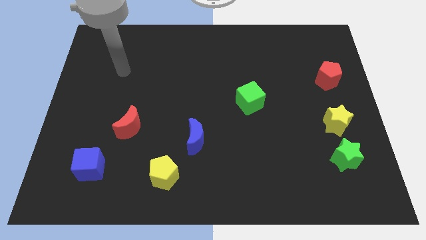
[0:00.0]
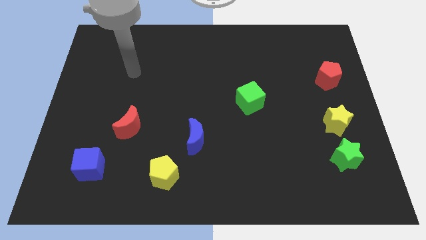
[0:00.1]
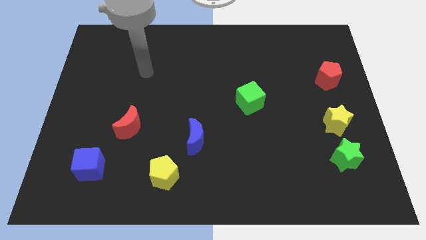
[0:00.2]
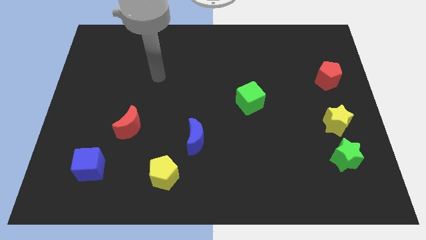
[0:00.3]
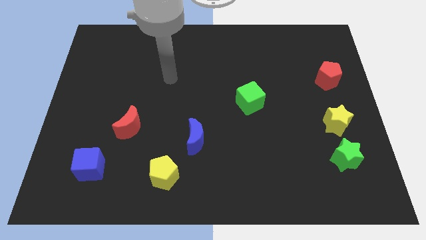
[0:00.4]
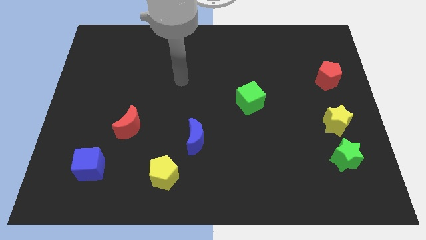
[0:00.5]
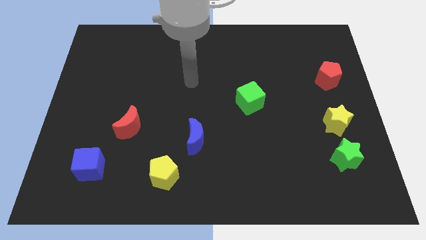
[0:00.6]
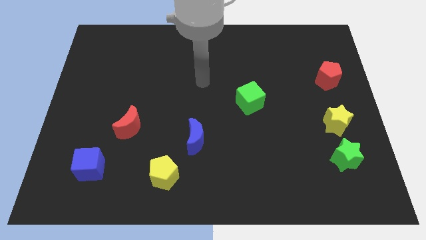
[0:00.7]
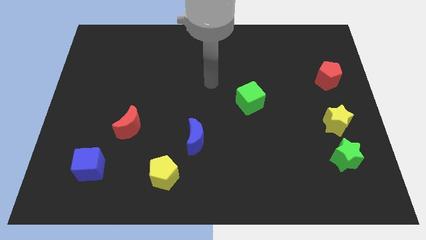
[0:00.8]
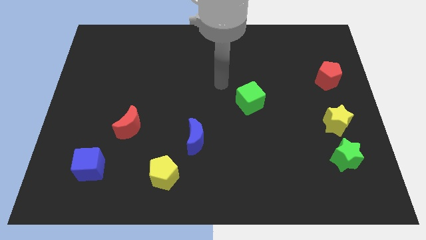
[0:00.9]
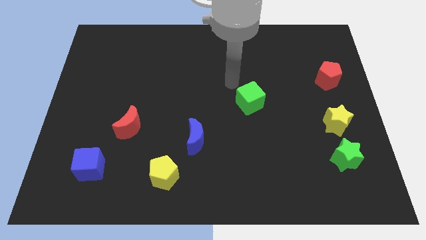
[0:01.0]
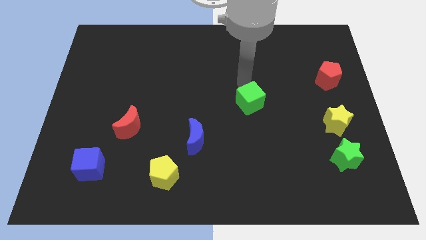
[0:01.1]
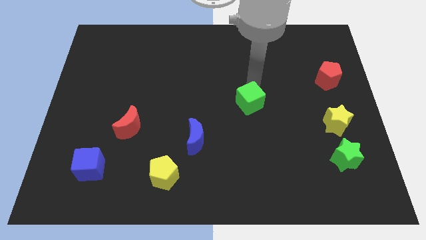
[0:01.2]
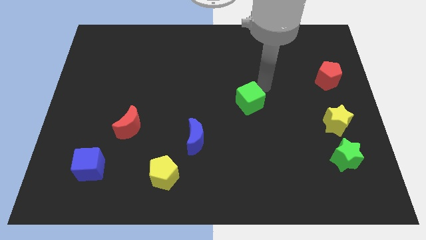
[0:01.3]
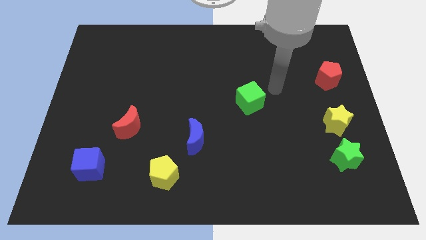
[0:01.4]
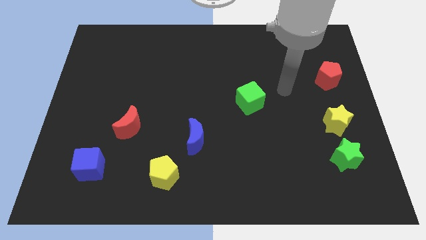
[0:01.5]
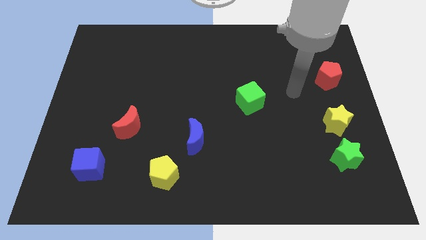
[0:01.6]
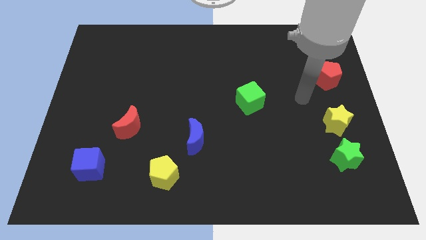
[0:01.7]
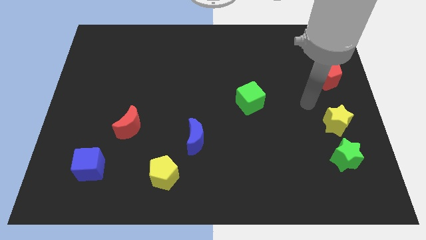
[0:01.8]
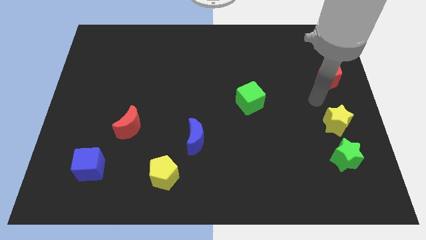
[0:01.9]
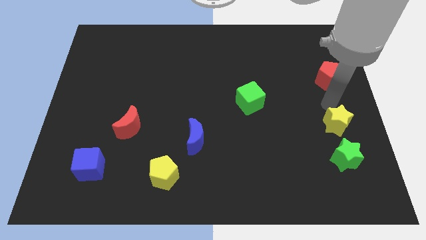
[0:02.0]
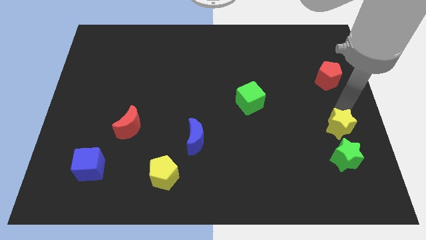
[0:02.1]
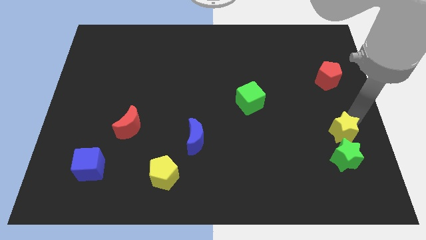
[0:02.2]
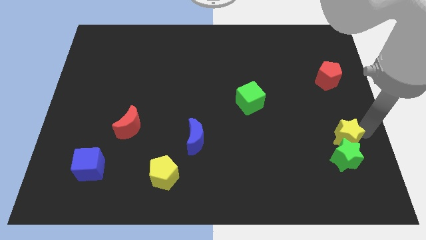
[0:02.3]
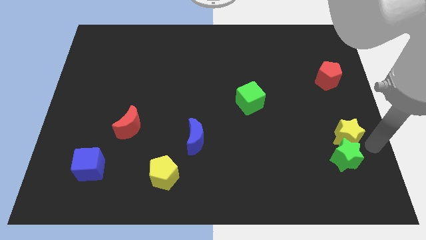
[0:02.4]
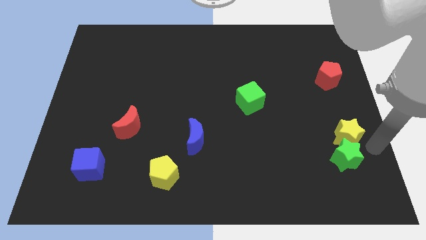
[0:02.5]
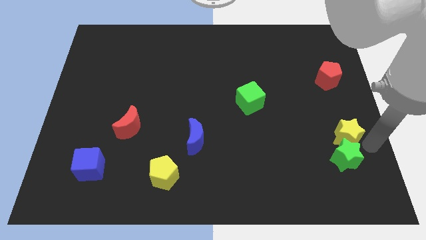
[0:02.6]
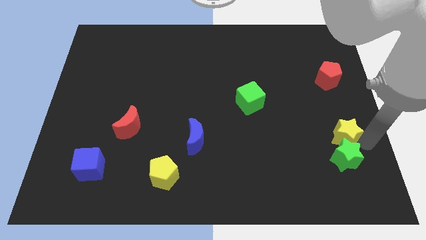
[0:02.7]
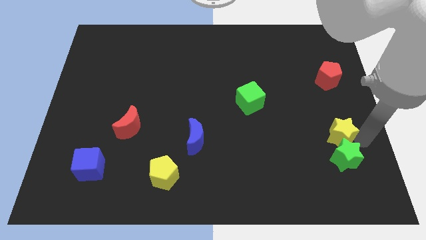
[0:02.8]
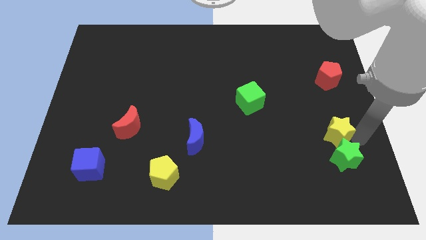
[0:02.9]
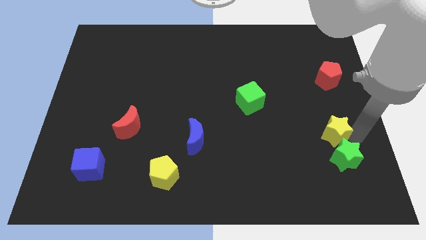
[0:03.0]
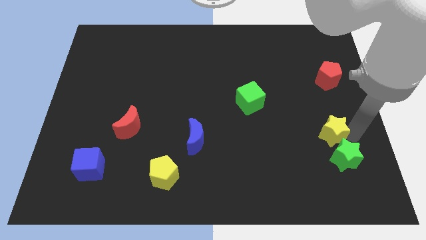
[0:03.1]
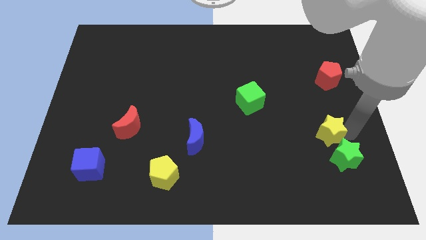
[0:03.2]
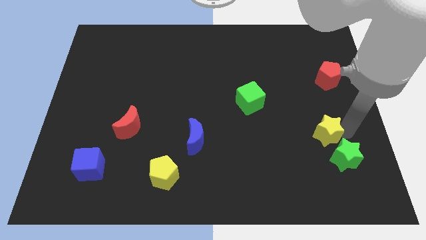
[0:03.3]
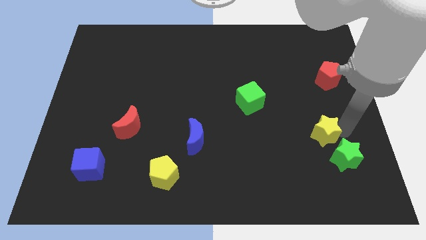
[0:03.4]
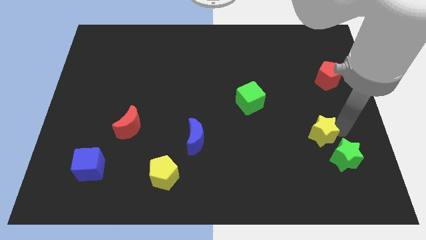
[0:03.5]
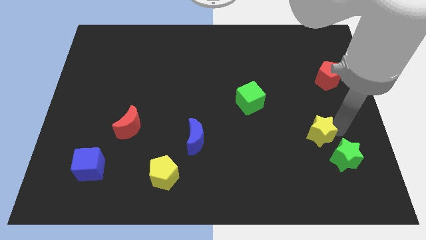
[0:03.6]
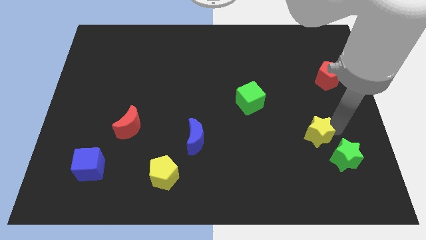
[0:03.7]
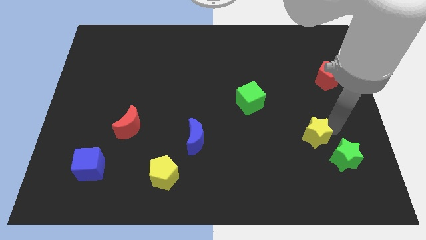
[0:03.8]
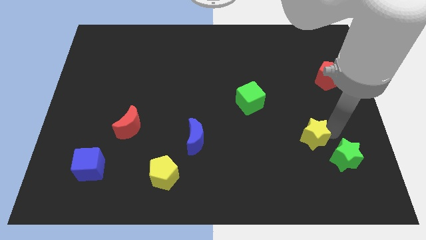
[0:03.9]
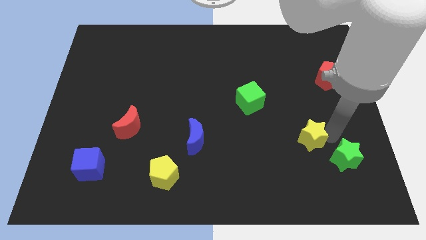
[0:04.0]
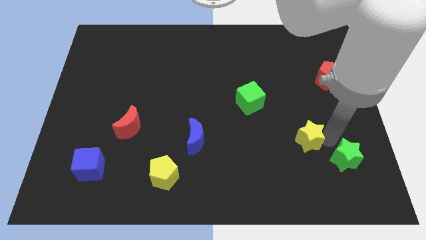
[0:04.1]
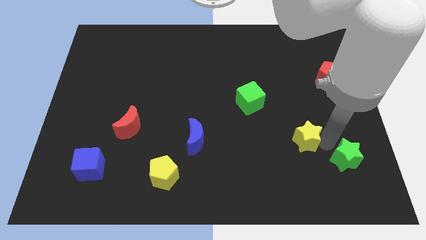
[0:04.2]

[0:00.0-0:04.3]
push the yellow star left somewhat

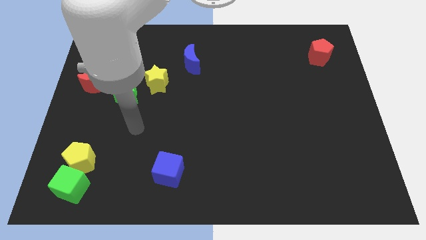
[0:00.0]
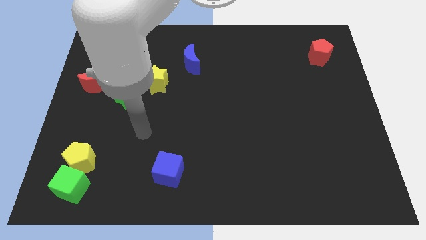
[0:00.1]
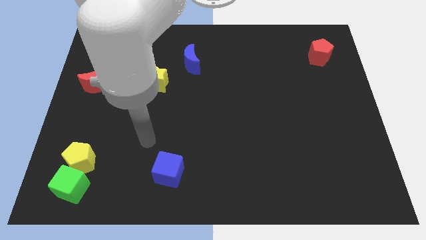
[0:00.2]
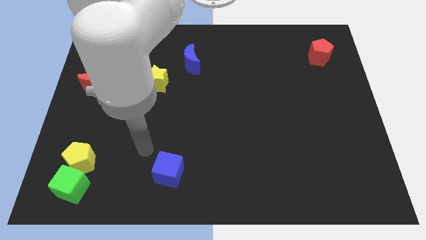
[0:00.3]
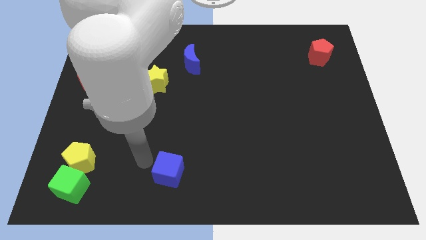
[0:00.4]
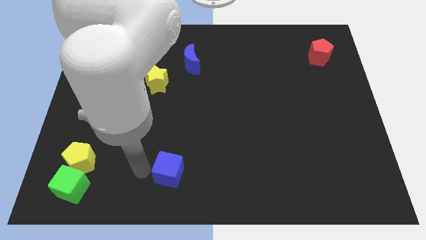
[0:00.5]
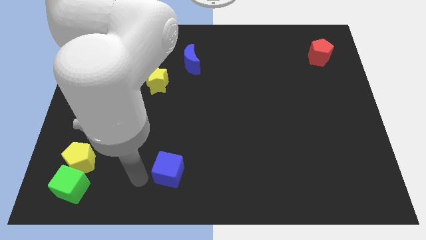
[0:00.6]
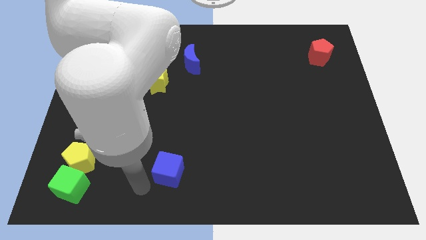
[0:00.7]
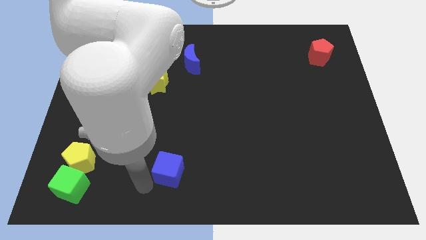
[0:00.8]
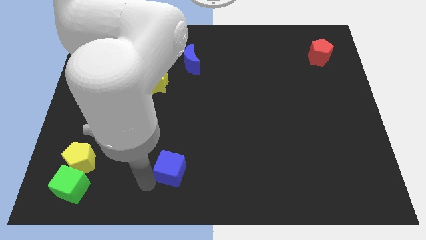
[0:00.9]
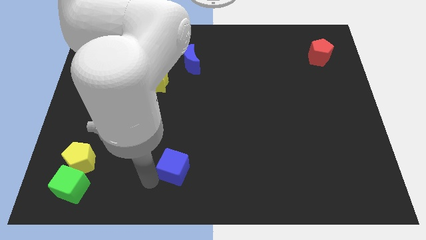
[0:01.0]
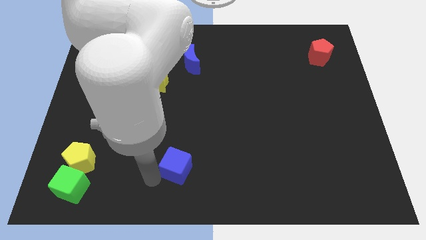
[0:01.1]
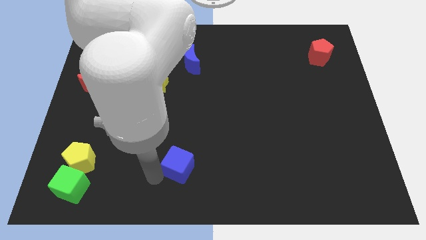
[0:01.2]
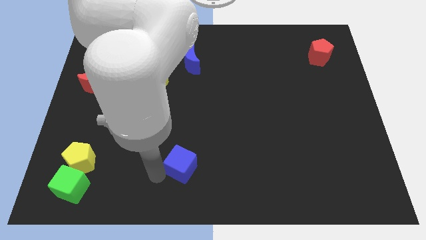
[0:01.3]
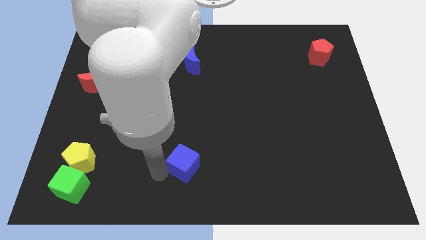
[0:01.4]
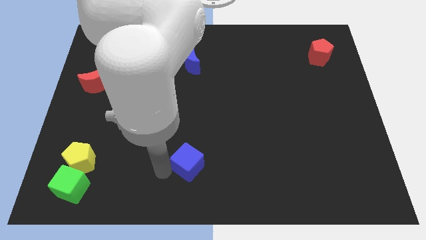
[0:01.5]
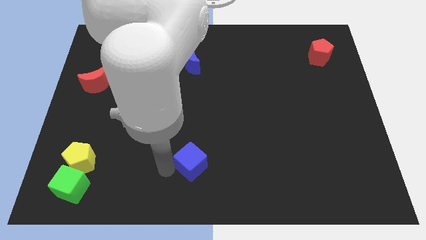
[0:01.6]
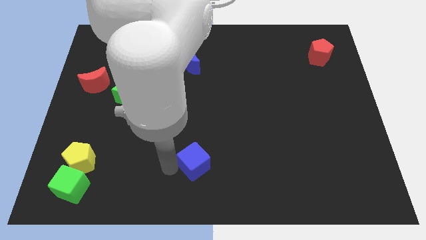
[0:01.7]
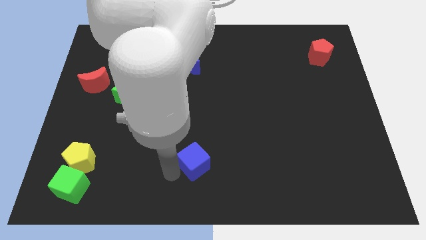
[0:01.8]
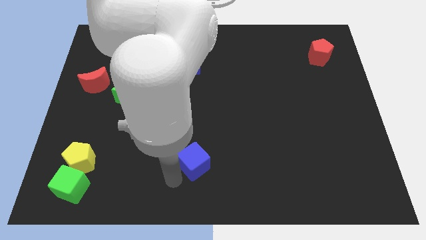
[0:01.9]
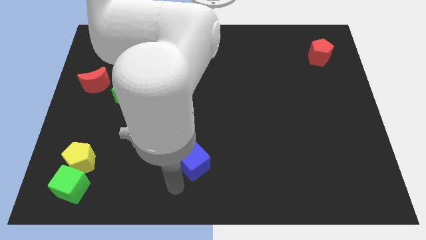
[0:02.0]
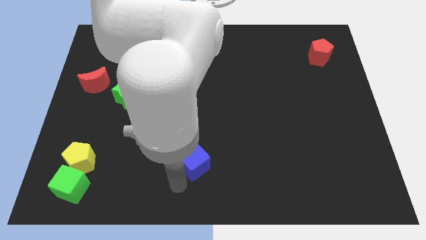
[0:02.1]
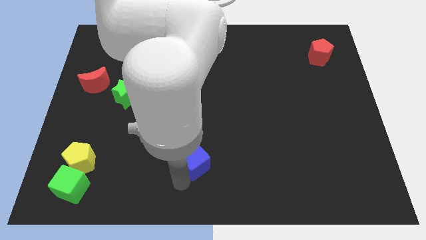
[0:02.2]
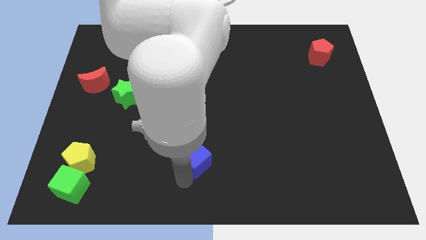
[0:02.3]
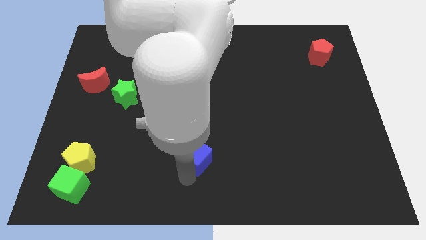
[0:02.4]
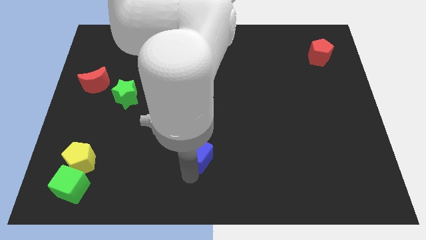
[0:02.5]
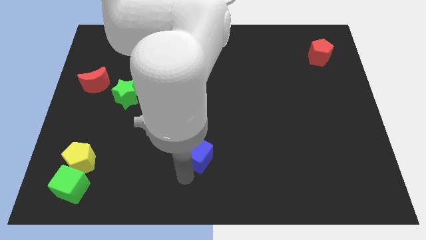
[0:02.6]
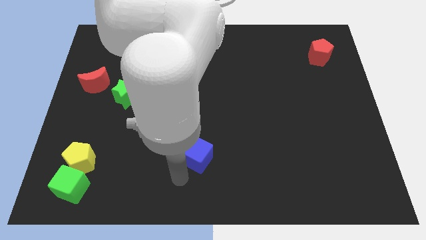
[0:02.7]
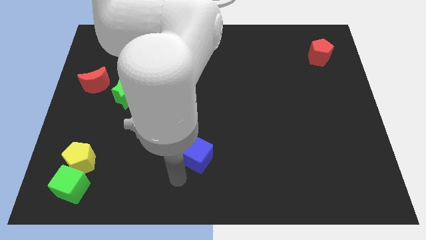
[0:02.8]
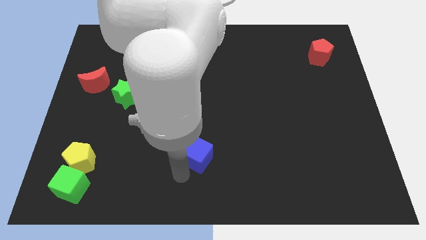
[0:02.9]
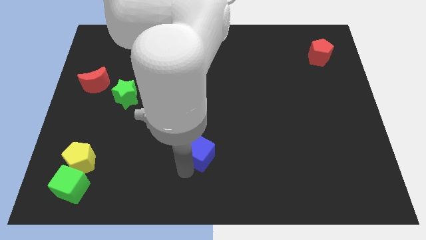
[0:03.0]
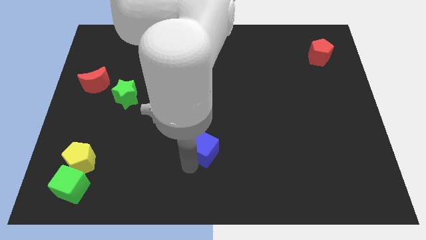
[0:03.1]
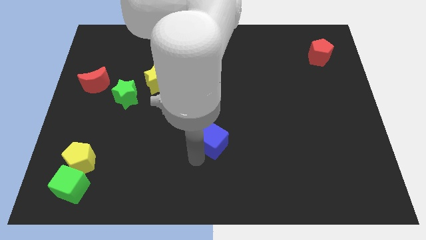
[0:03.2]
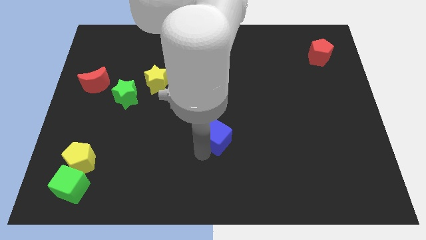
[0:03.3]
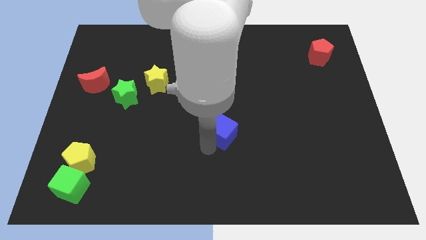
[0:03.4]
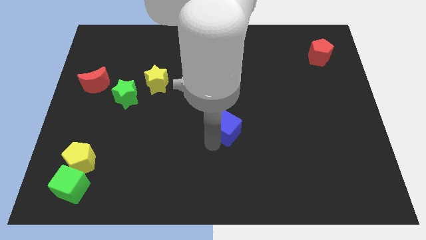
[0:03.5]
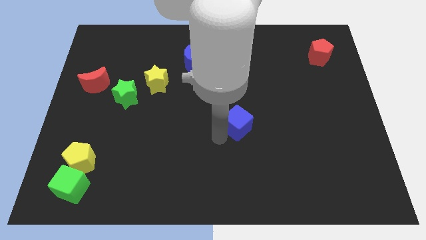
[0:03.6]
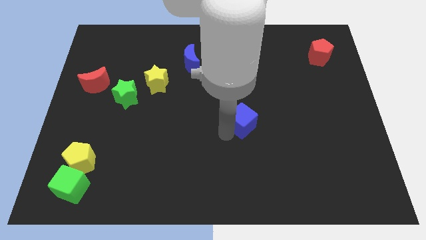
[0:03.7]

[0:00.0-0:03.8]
move the blue cube up and to the right diagonally
